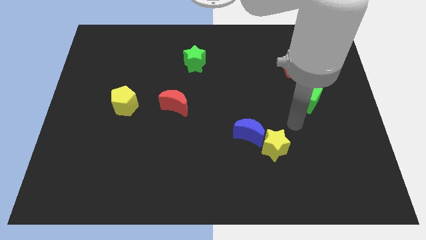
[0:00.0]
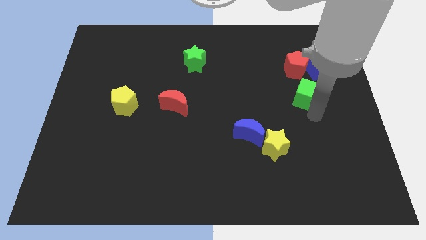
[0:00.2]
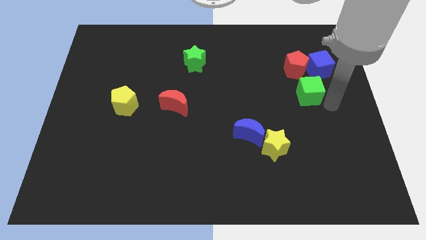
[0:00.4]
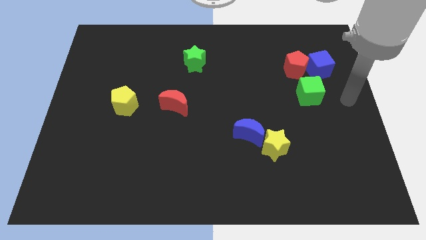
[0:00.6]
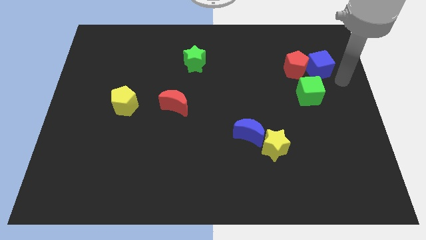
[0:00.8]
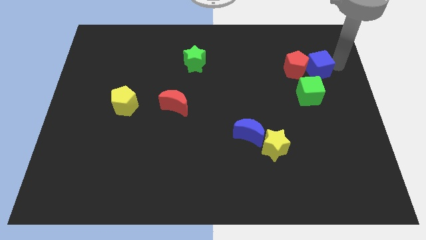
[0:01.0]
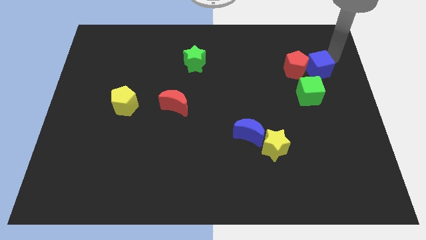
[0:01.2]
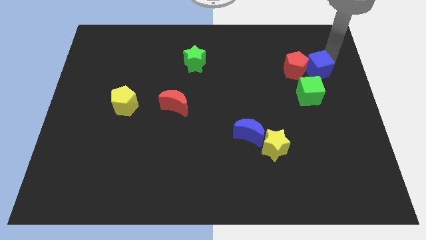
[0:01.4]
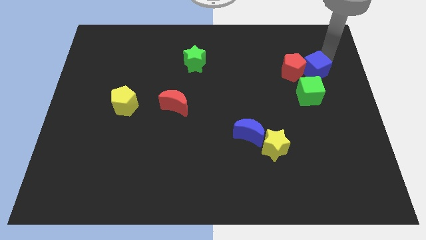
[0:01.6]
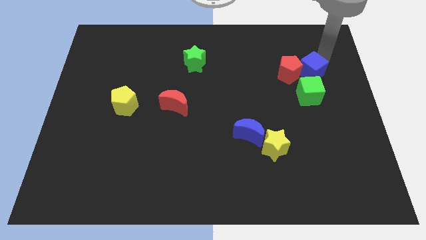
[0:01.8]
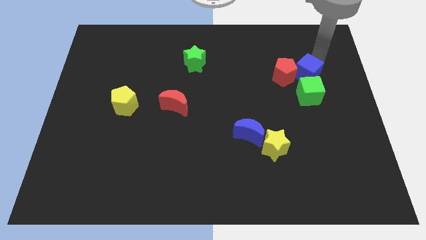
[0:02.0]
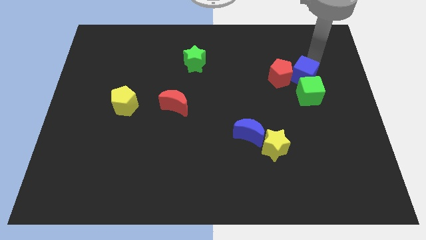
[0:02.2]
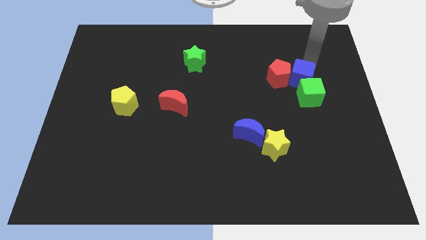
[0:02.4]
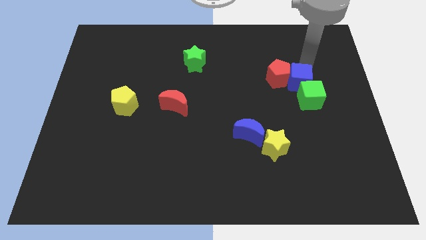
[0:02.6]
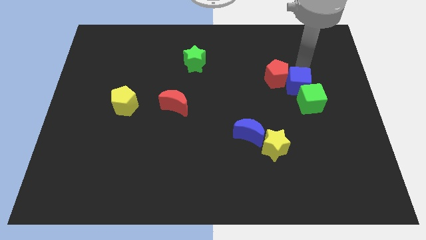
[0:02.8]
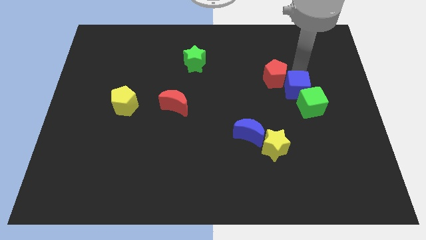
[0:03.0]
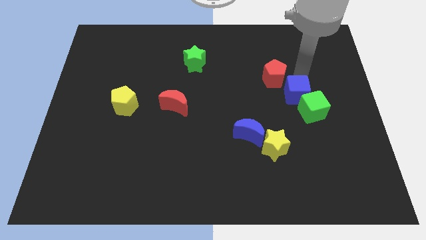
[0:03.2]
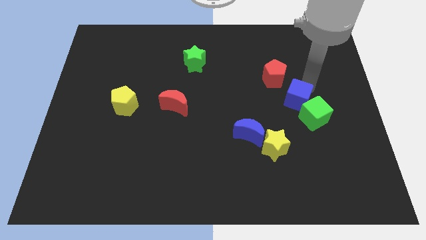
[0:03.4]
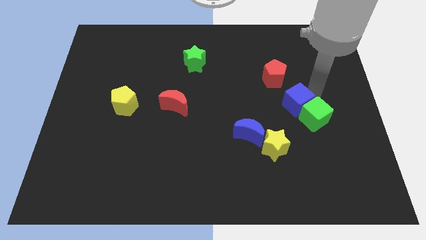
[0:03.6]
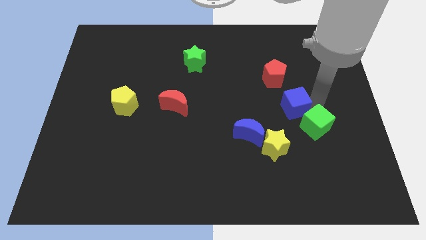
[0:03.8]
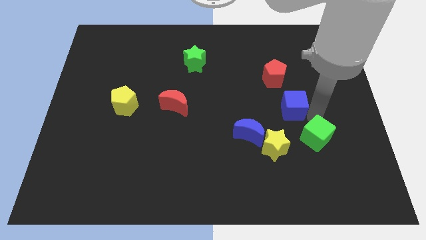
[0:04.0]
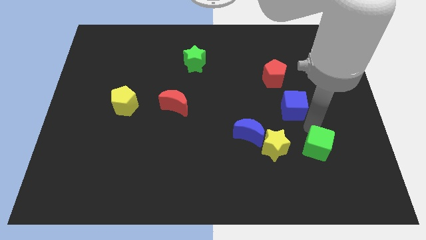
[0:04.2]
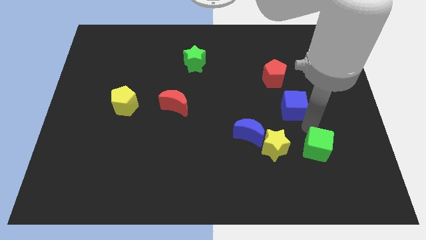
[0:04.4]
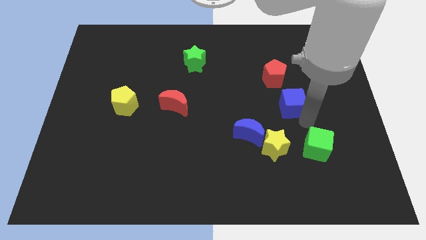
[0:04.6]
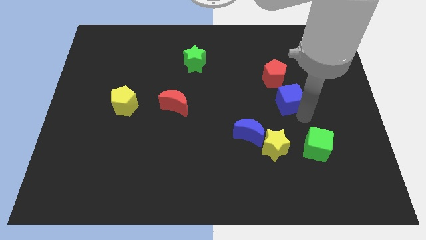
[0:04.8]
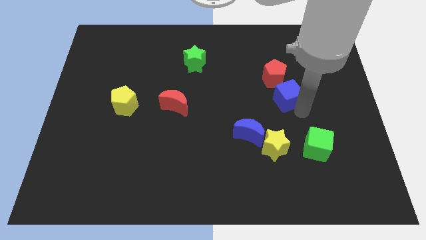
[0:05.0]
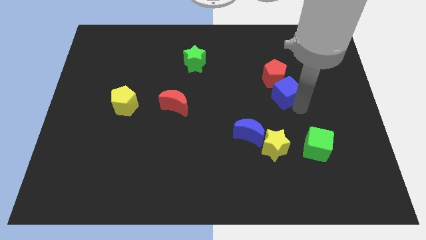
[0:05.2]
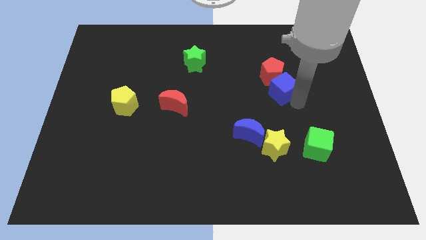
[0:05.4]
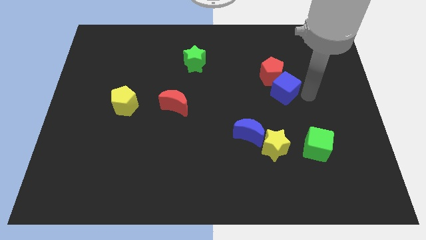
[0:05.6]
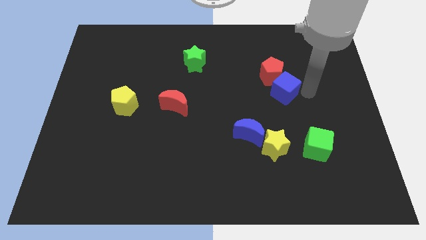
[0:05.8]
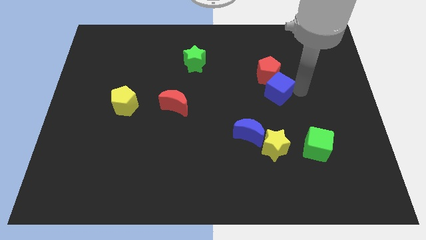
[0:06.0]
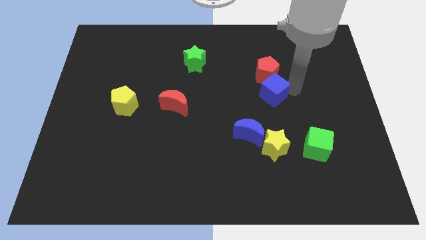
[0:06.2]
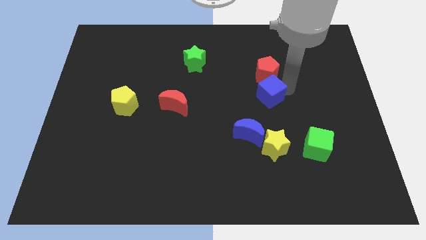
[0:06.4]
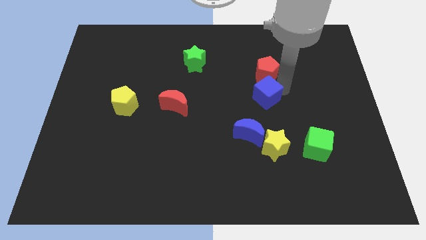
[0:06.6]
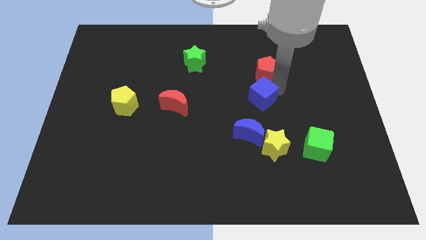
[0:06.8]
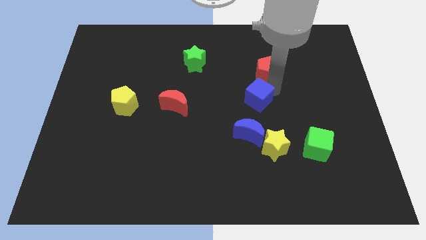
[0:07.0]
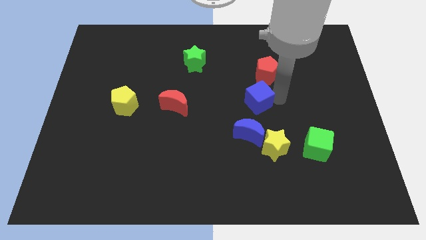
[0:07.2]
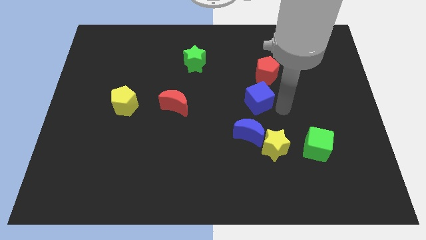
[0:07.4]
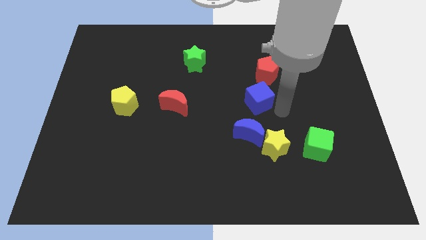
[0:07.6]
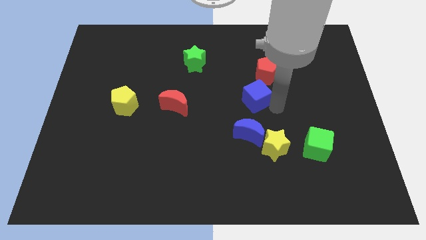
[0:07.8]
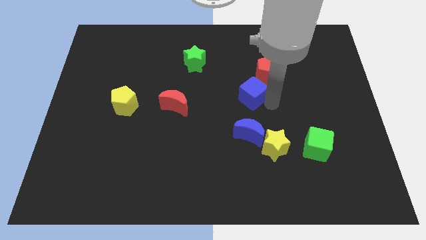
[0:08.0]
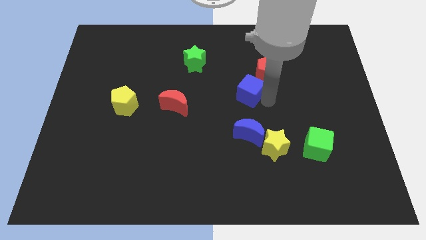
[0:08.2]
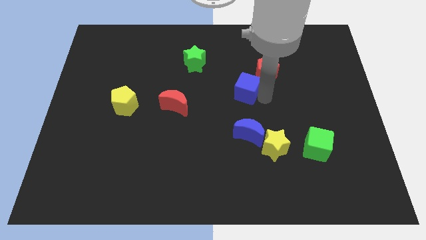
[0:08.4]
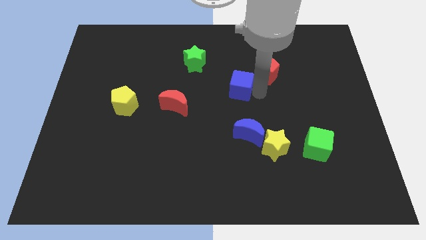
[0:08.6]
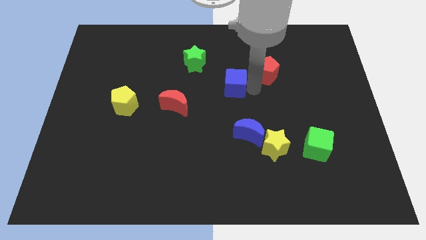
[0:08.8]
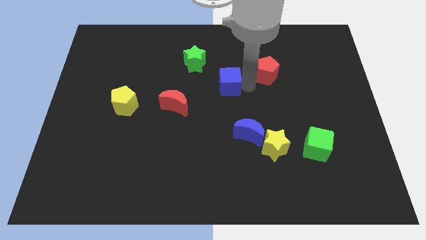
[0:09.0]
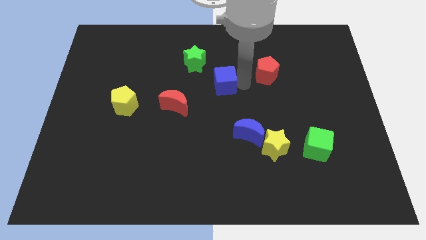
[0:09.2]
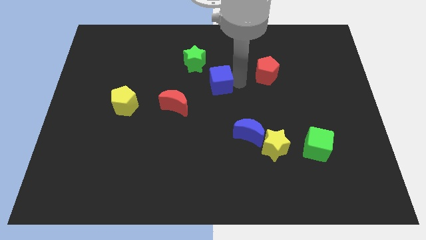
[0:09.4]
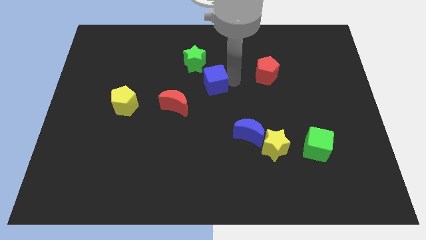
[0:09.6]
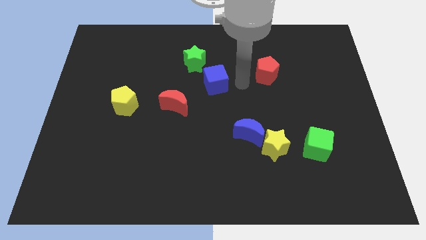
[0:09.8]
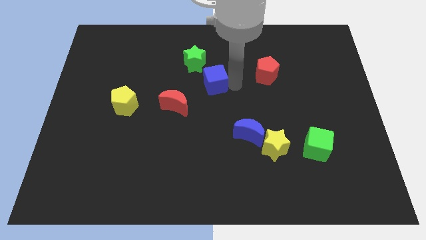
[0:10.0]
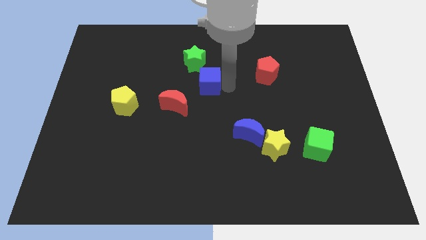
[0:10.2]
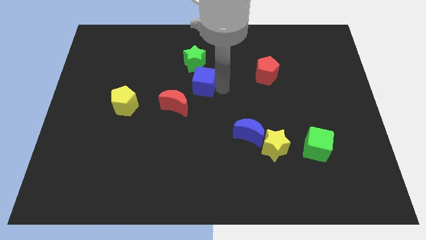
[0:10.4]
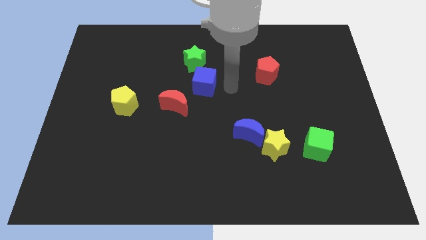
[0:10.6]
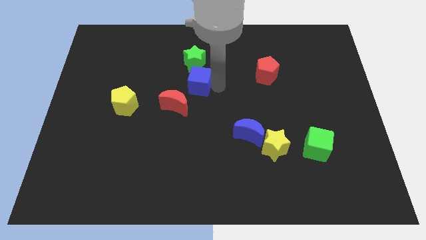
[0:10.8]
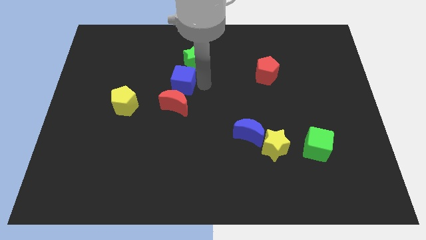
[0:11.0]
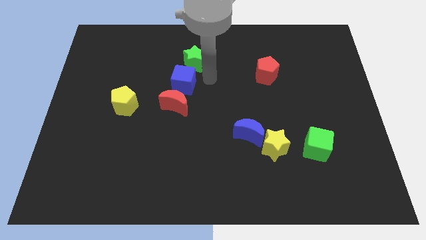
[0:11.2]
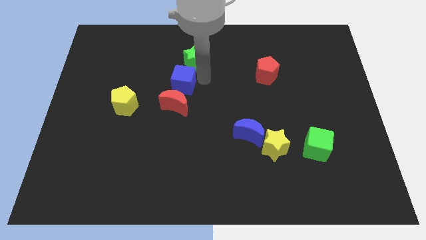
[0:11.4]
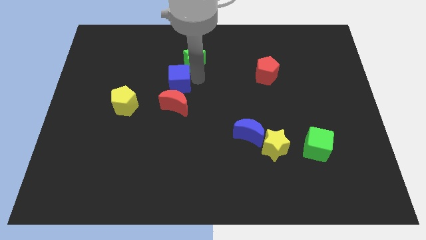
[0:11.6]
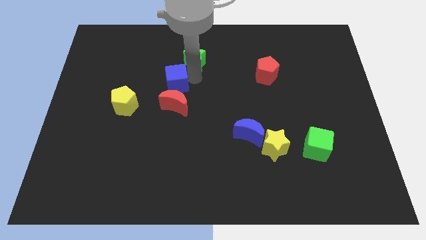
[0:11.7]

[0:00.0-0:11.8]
put the blue cube diagonally up and to the left of the red moon

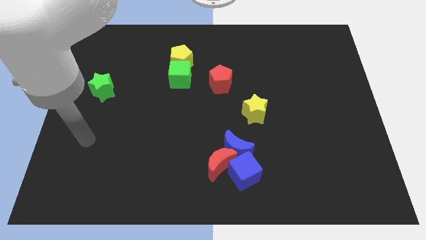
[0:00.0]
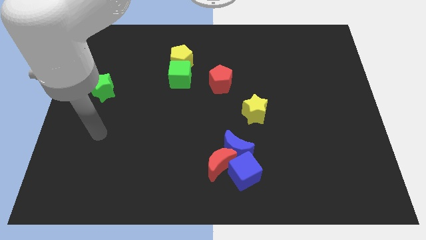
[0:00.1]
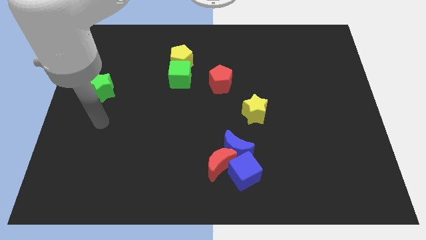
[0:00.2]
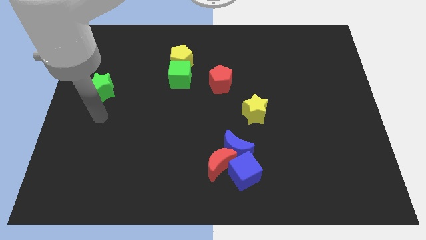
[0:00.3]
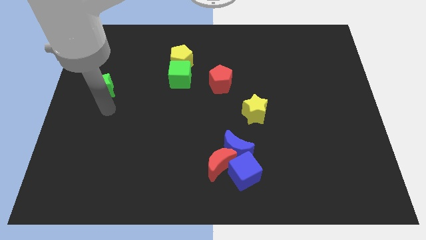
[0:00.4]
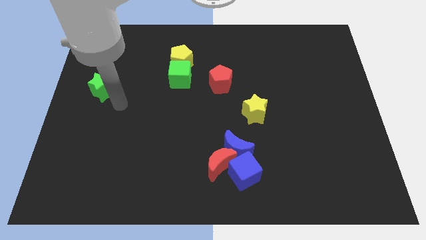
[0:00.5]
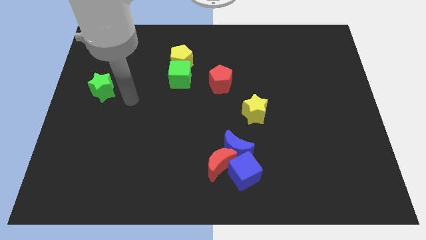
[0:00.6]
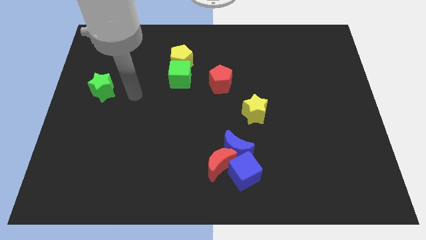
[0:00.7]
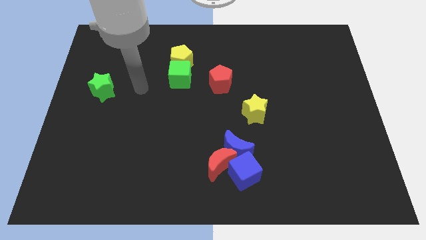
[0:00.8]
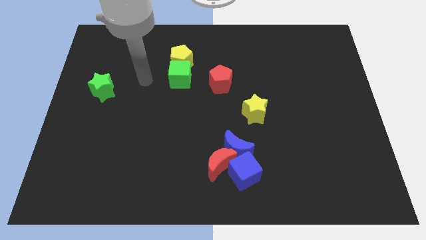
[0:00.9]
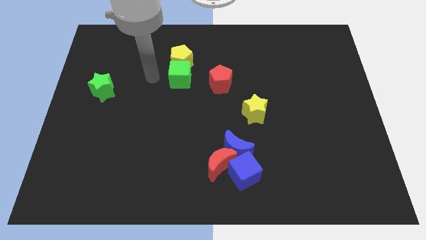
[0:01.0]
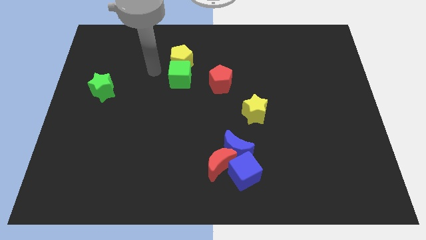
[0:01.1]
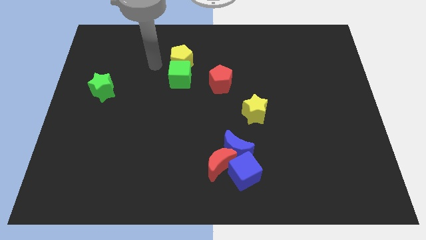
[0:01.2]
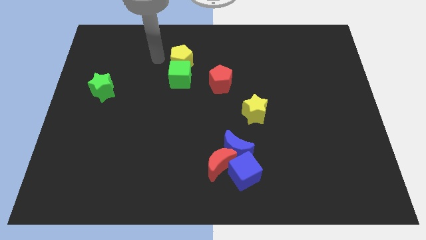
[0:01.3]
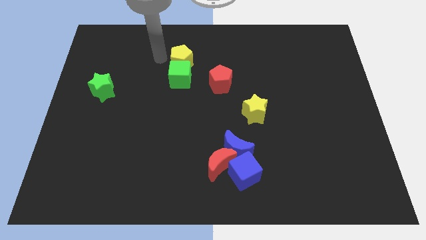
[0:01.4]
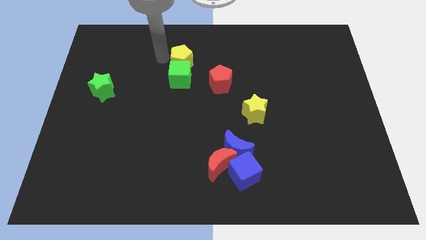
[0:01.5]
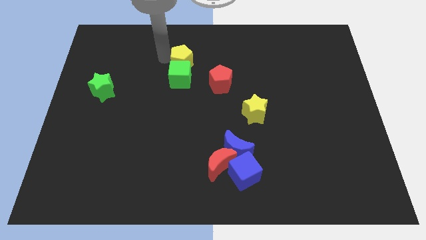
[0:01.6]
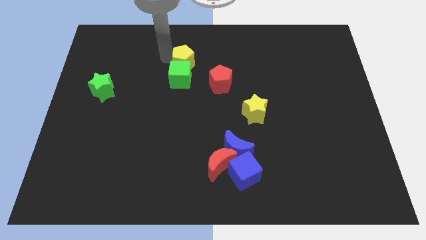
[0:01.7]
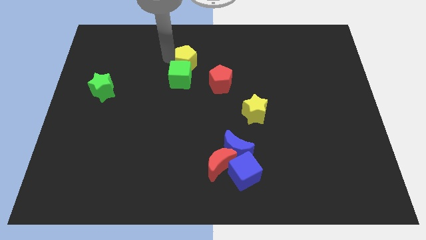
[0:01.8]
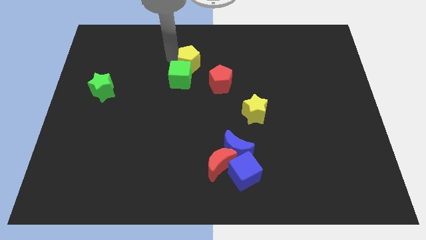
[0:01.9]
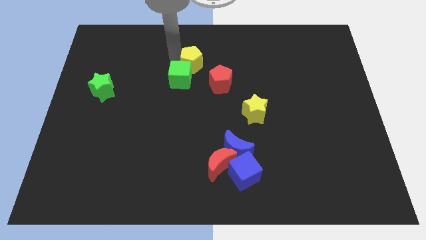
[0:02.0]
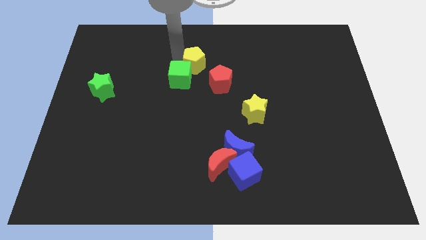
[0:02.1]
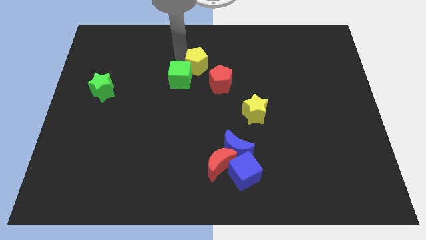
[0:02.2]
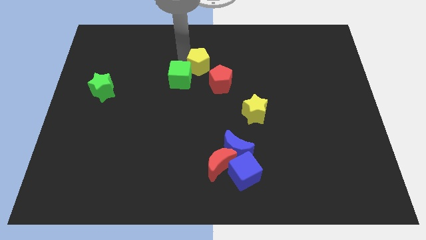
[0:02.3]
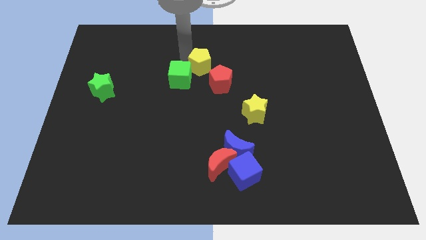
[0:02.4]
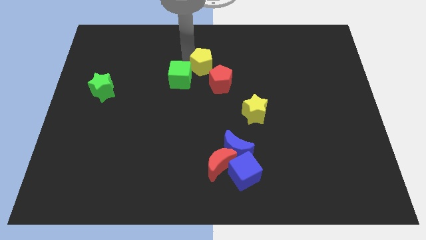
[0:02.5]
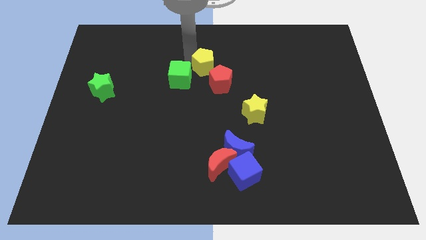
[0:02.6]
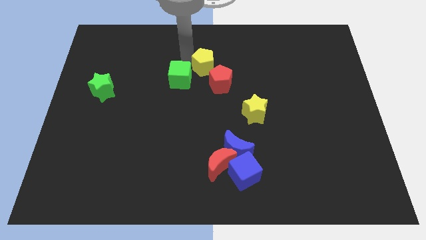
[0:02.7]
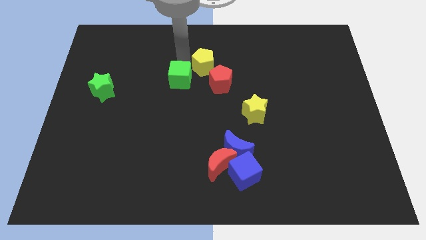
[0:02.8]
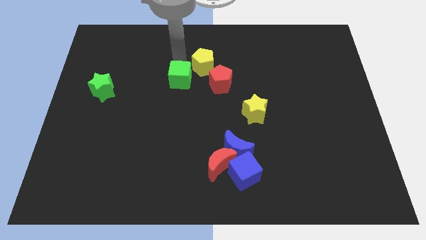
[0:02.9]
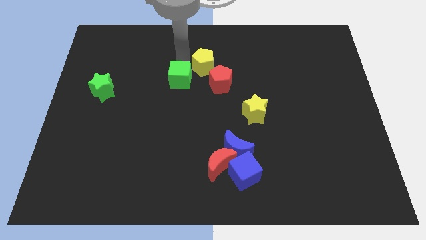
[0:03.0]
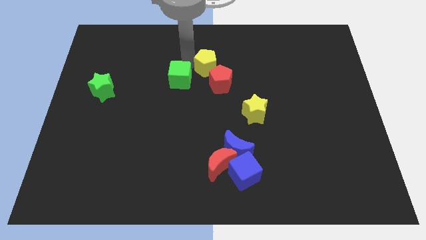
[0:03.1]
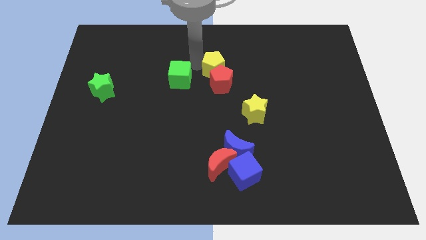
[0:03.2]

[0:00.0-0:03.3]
push the yellow pentagon to the top right side of the red pentagon
